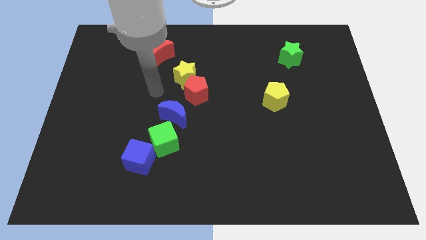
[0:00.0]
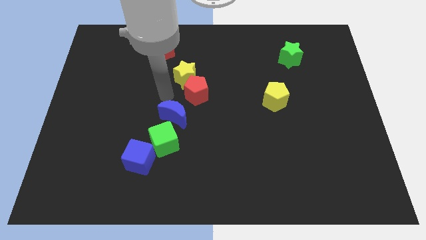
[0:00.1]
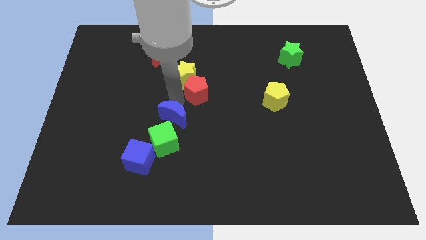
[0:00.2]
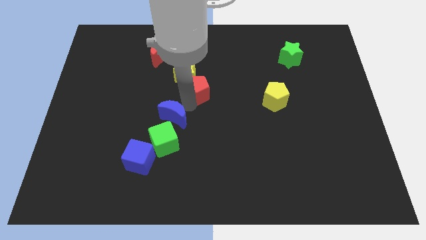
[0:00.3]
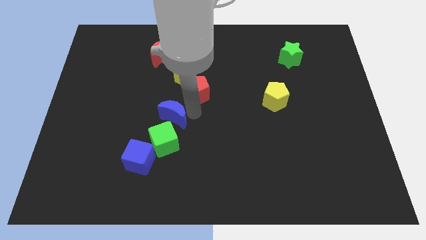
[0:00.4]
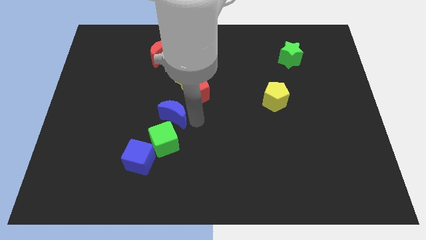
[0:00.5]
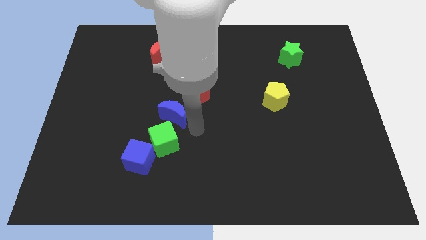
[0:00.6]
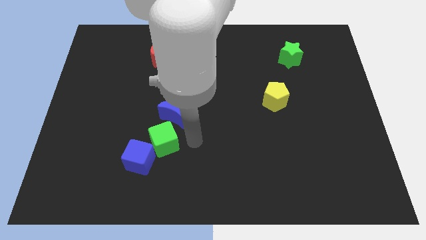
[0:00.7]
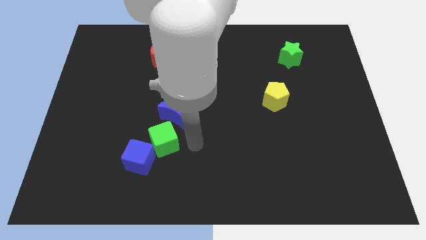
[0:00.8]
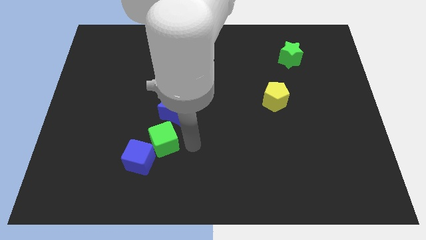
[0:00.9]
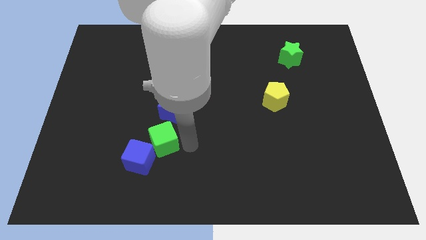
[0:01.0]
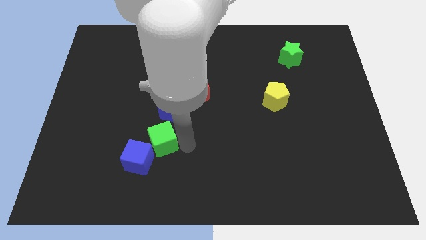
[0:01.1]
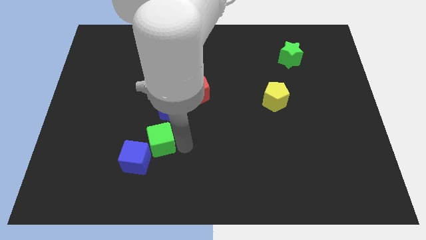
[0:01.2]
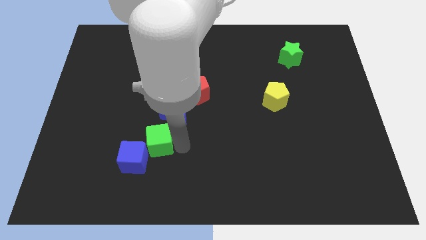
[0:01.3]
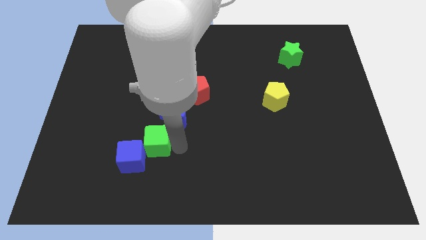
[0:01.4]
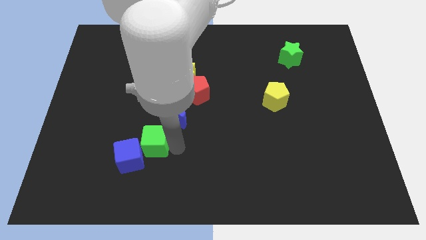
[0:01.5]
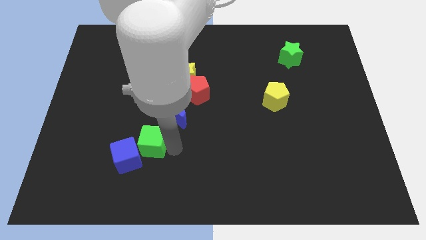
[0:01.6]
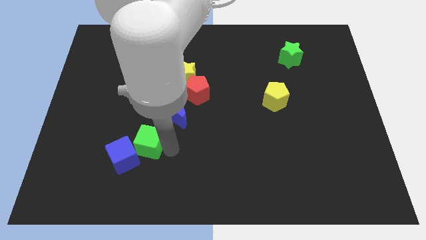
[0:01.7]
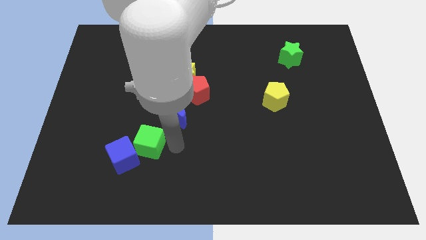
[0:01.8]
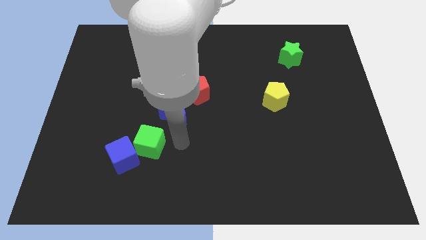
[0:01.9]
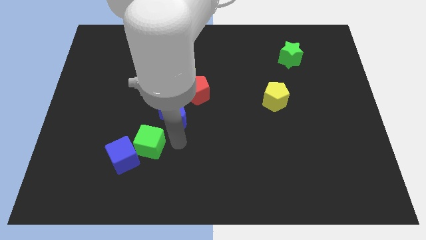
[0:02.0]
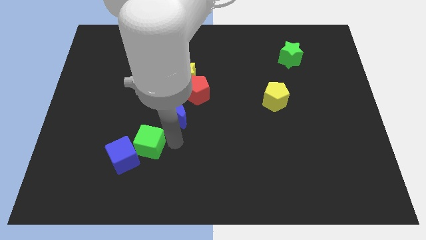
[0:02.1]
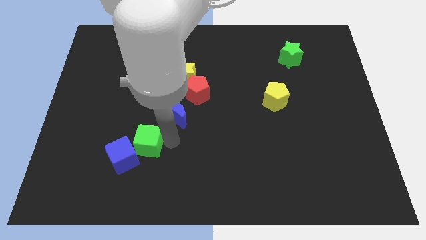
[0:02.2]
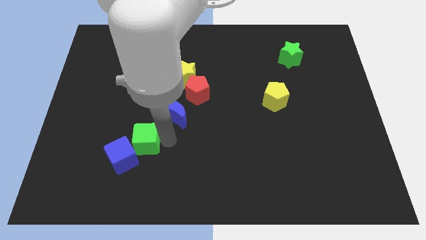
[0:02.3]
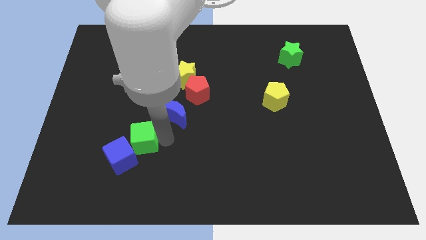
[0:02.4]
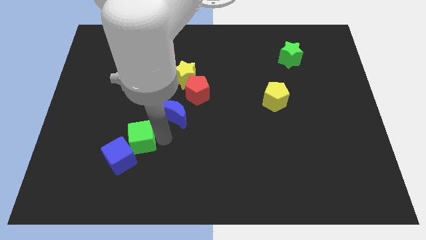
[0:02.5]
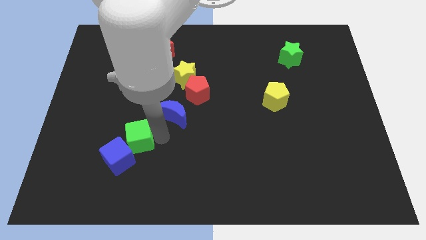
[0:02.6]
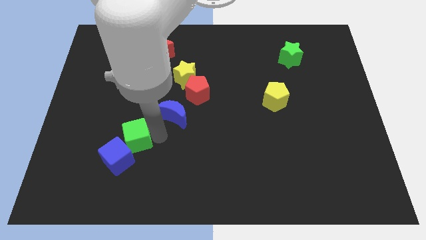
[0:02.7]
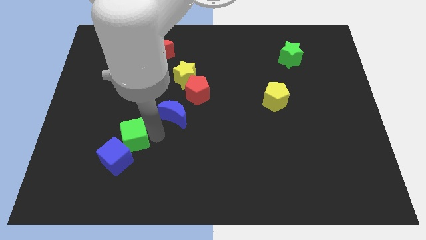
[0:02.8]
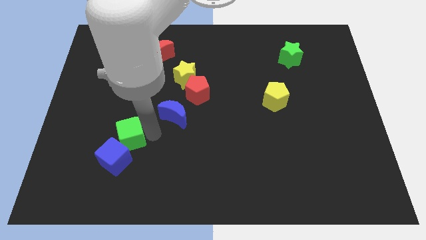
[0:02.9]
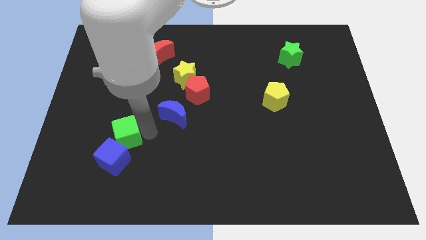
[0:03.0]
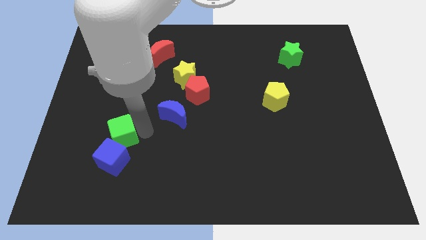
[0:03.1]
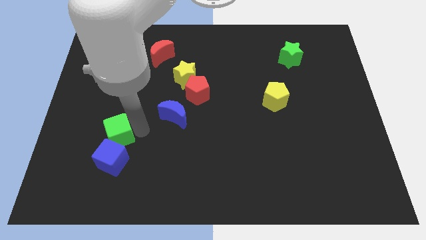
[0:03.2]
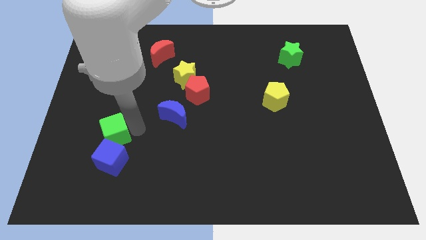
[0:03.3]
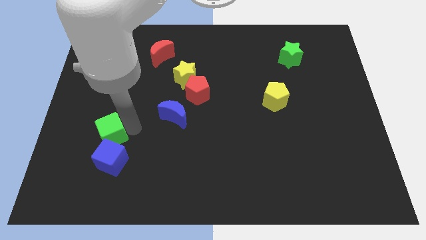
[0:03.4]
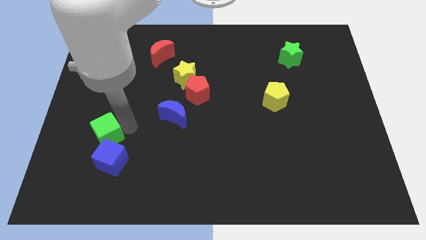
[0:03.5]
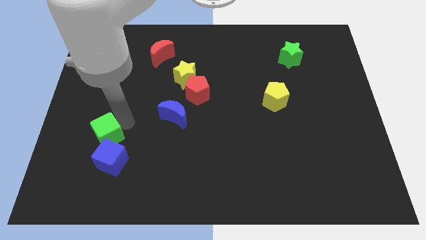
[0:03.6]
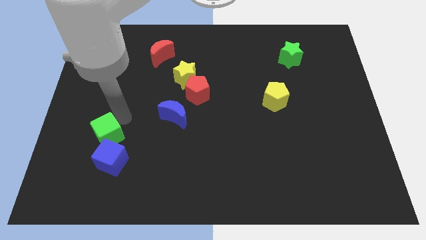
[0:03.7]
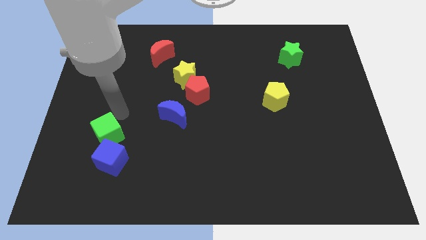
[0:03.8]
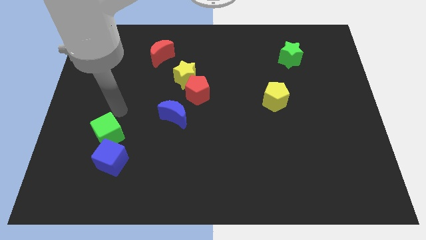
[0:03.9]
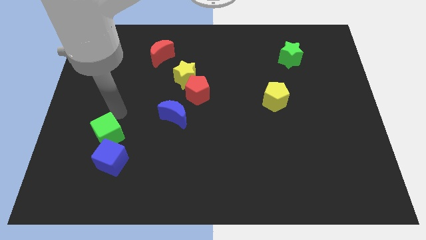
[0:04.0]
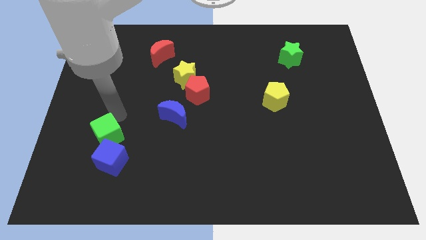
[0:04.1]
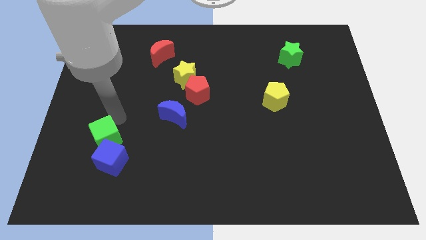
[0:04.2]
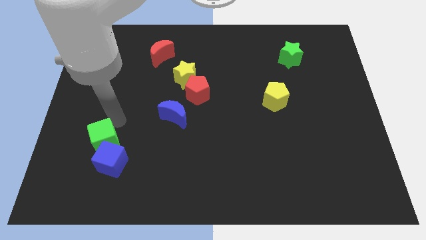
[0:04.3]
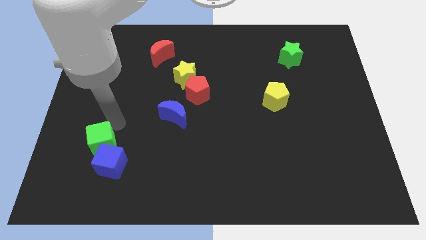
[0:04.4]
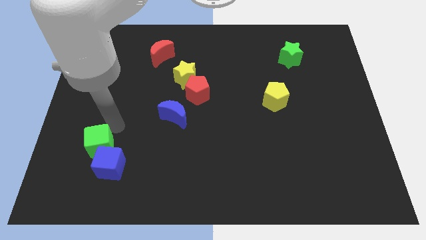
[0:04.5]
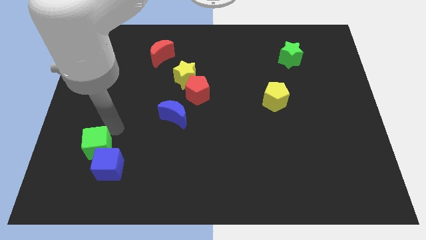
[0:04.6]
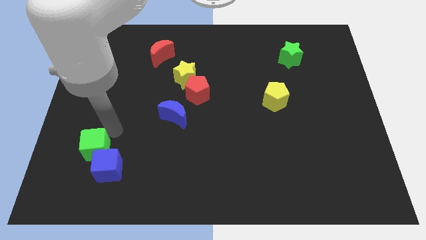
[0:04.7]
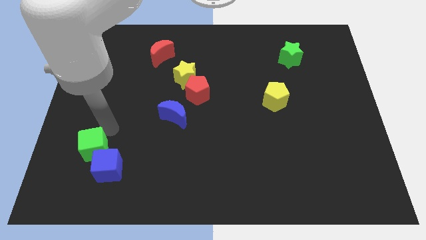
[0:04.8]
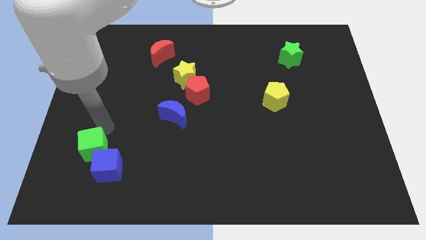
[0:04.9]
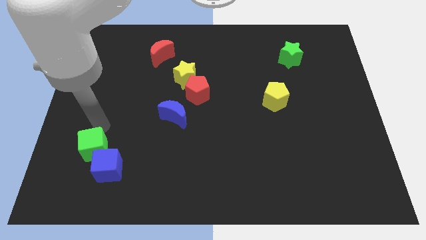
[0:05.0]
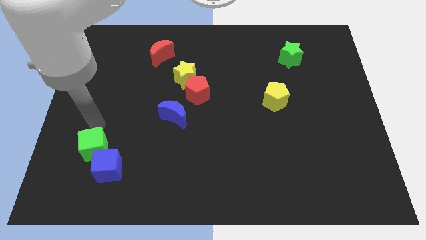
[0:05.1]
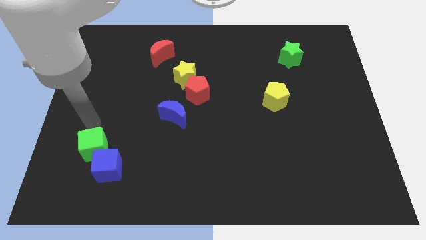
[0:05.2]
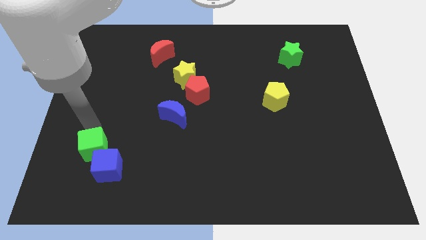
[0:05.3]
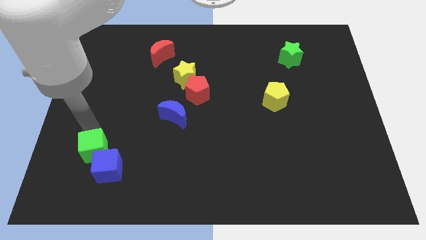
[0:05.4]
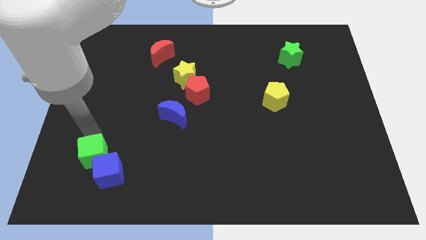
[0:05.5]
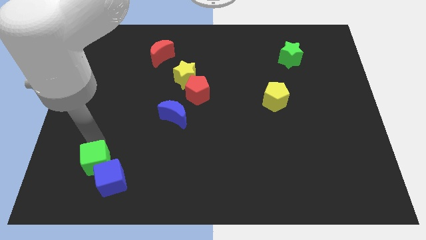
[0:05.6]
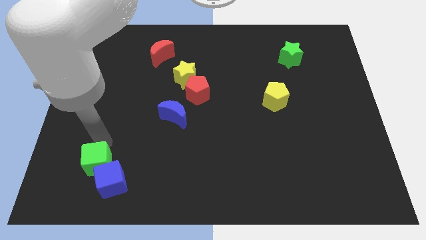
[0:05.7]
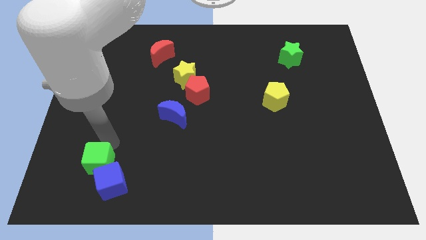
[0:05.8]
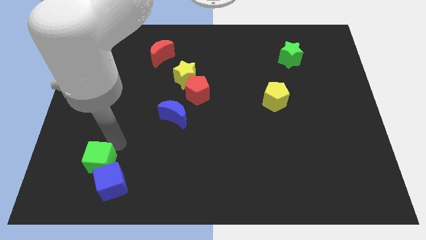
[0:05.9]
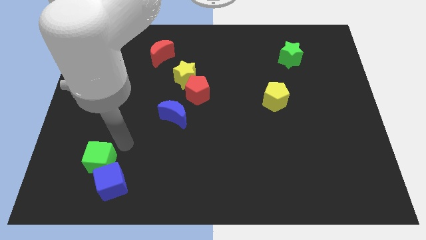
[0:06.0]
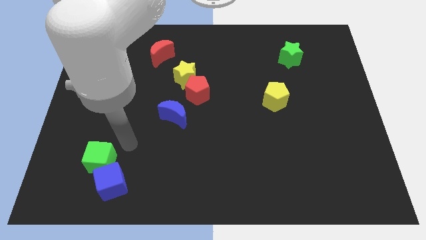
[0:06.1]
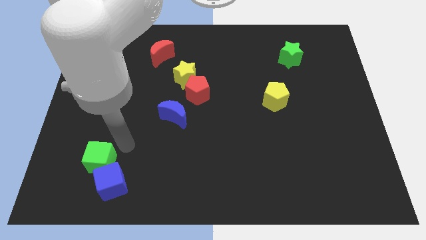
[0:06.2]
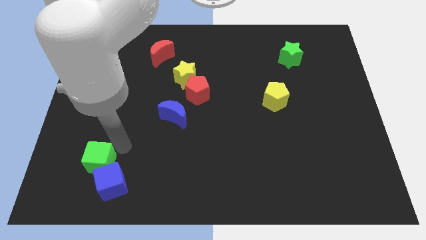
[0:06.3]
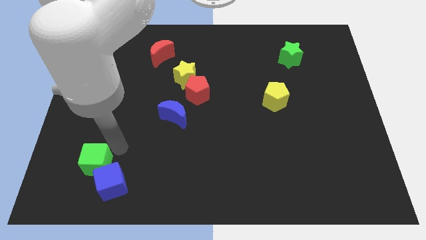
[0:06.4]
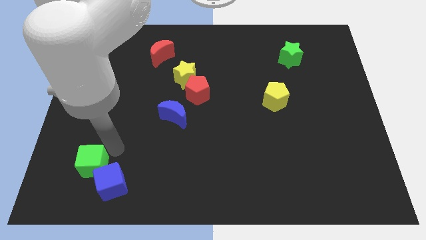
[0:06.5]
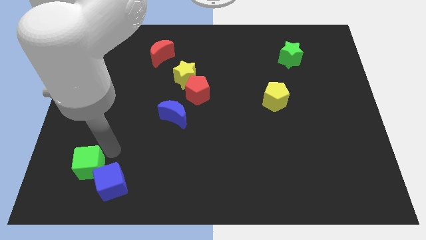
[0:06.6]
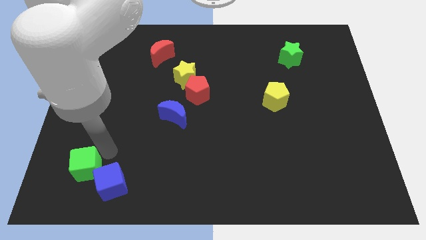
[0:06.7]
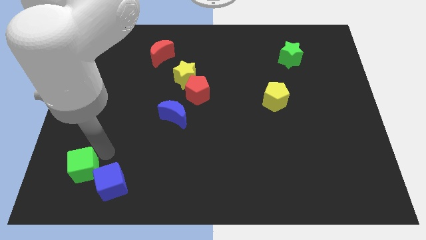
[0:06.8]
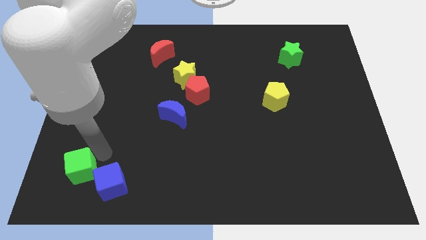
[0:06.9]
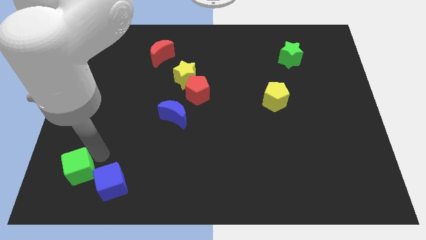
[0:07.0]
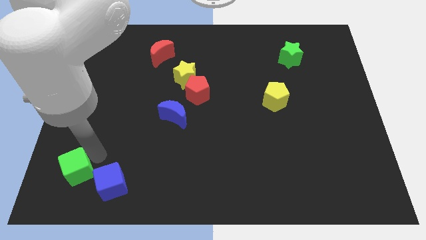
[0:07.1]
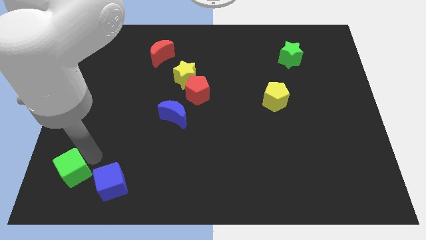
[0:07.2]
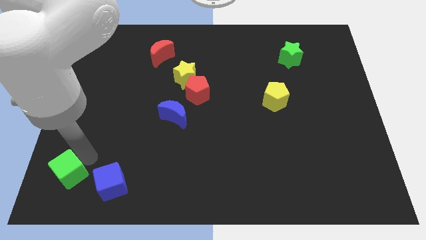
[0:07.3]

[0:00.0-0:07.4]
push the green cube to the bottom left of the board

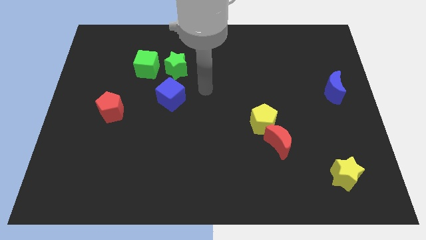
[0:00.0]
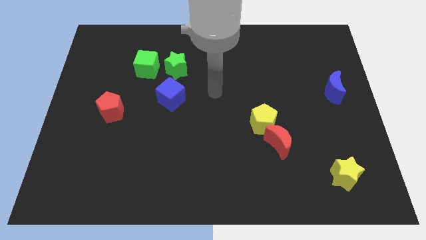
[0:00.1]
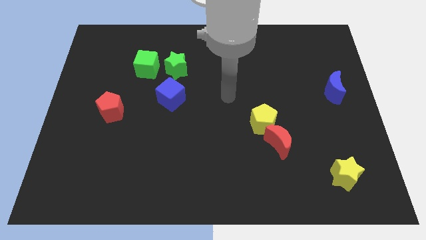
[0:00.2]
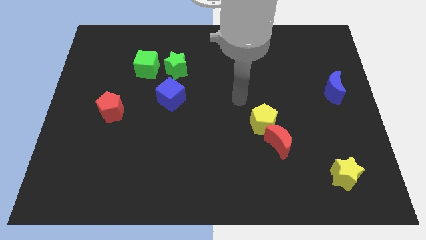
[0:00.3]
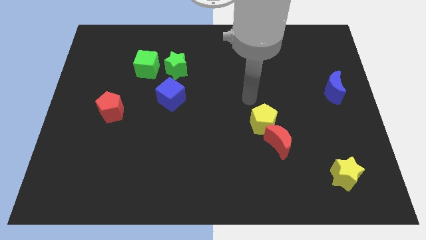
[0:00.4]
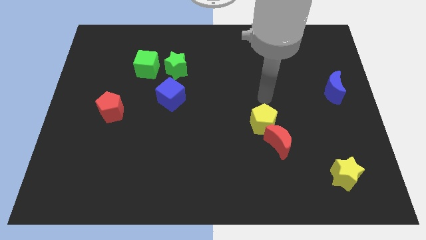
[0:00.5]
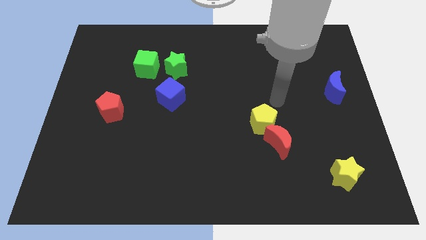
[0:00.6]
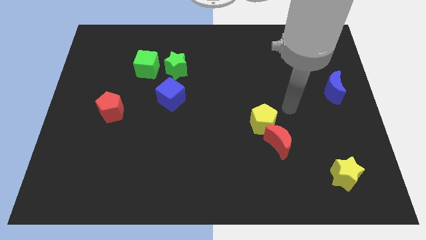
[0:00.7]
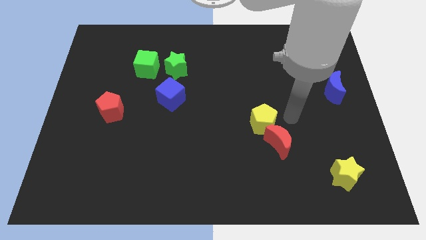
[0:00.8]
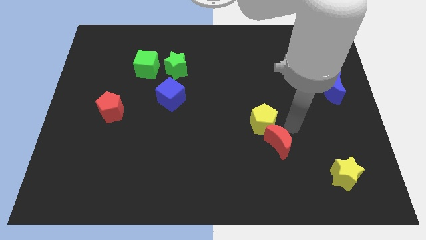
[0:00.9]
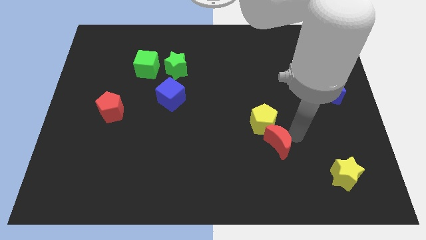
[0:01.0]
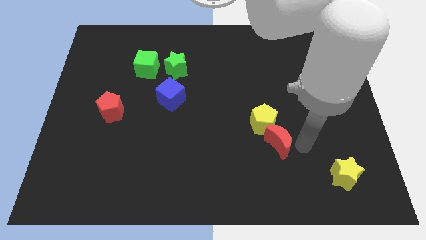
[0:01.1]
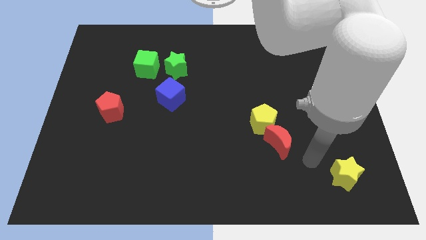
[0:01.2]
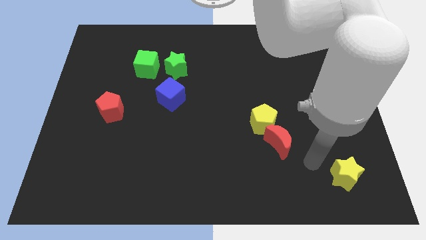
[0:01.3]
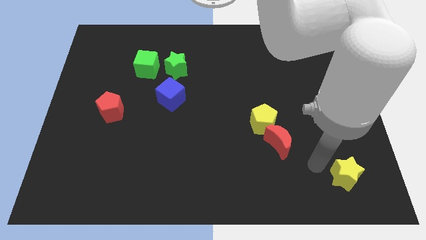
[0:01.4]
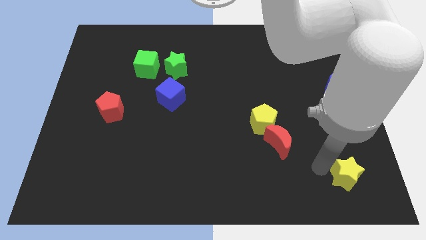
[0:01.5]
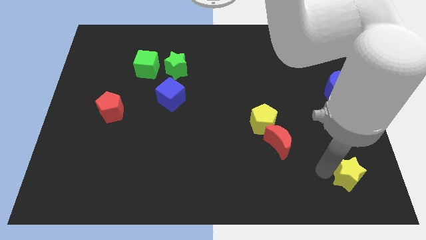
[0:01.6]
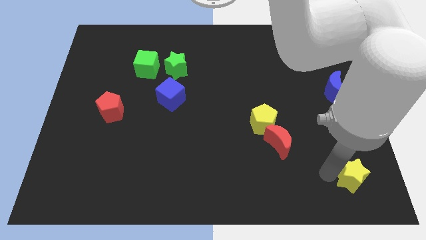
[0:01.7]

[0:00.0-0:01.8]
put the yellow star to the lower right corner
